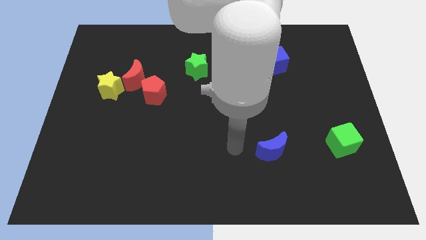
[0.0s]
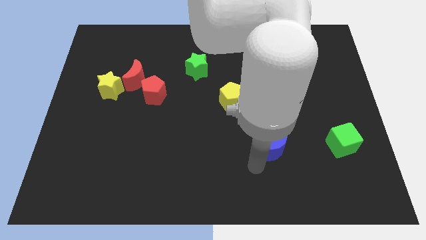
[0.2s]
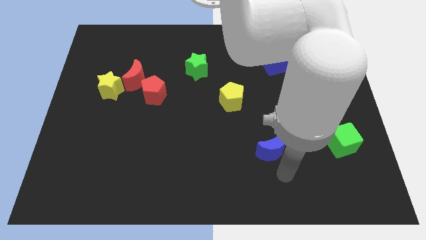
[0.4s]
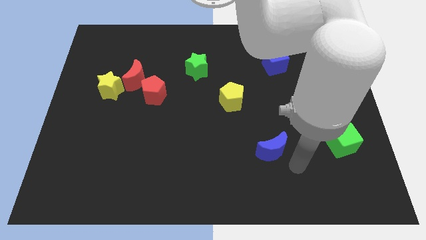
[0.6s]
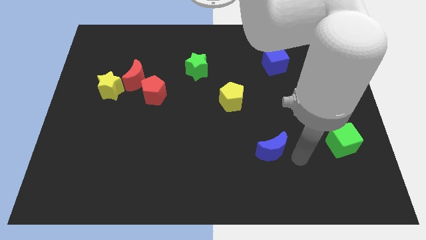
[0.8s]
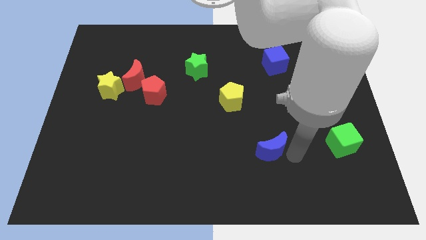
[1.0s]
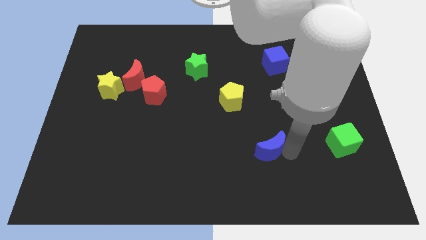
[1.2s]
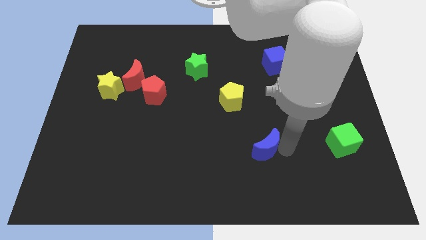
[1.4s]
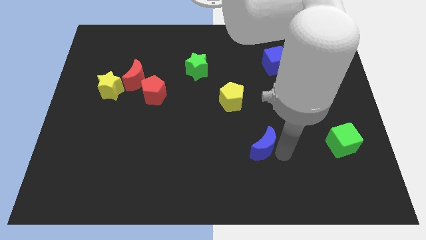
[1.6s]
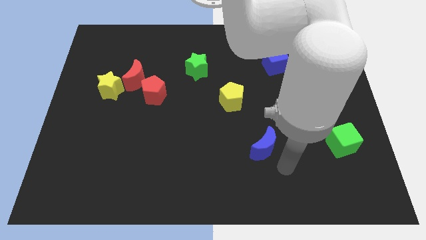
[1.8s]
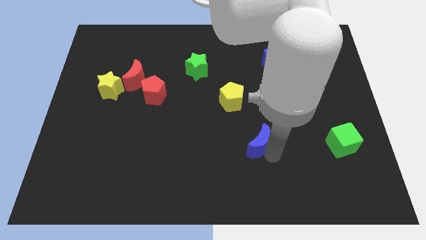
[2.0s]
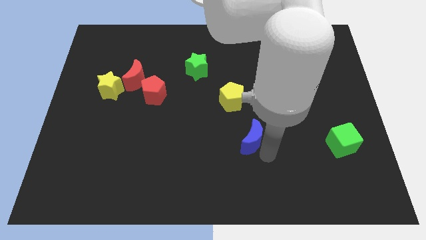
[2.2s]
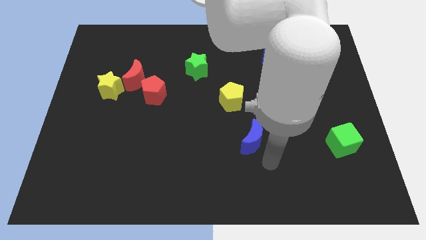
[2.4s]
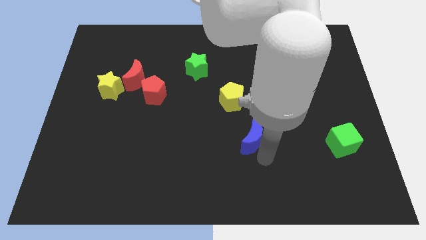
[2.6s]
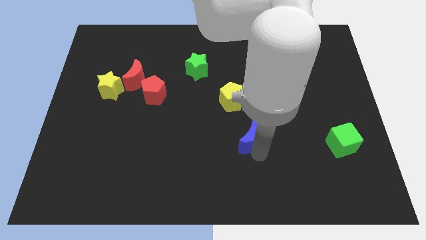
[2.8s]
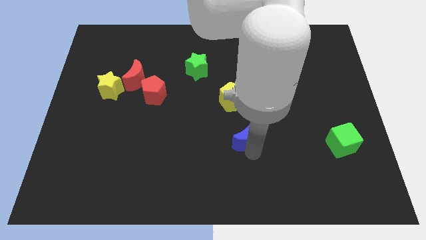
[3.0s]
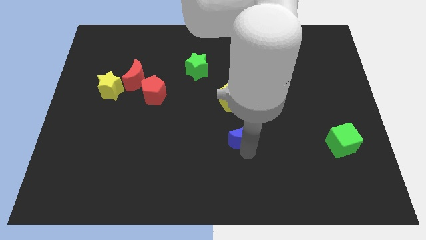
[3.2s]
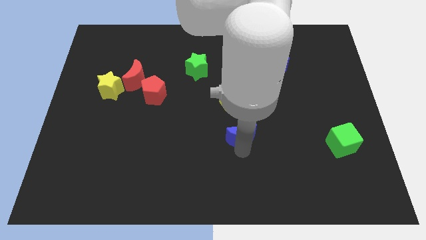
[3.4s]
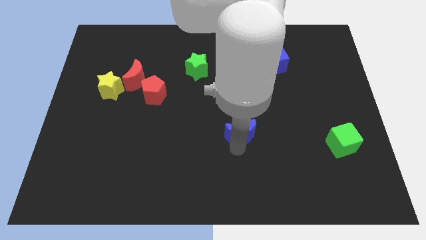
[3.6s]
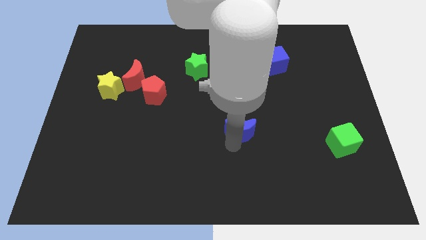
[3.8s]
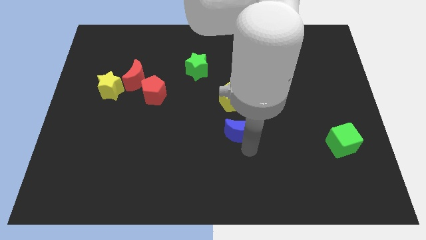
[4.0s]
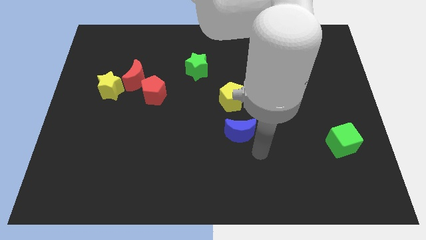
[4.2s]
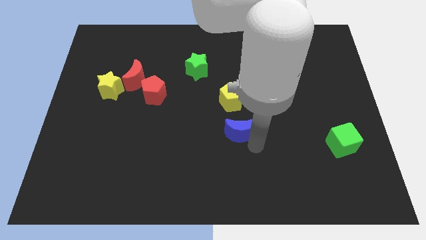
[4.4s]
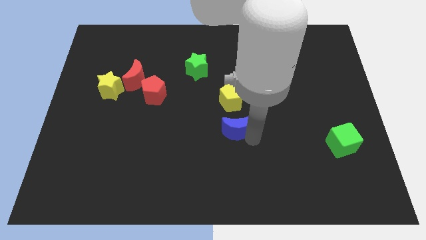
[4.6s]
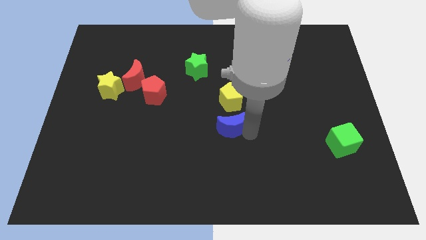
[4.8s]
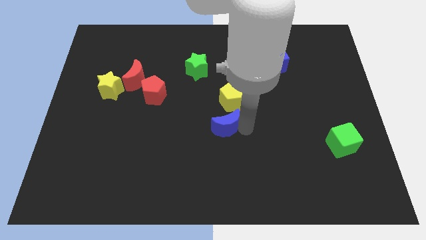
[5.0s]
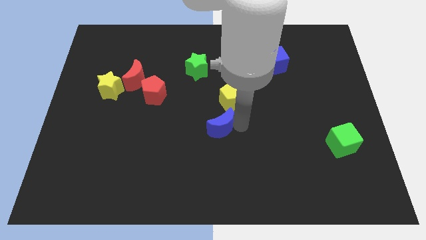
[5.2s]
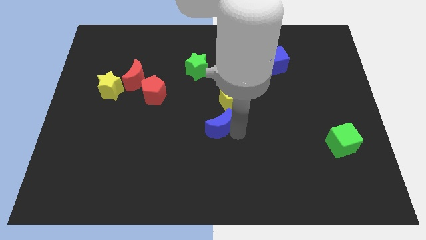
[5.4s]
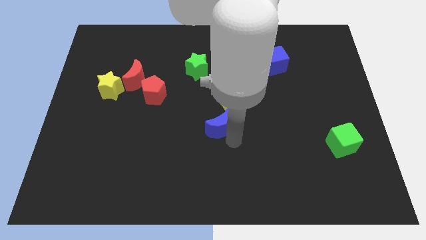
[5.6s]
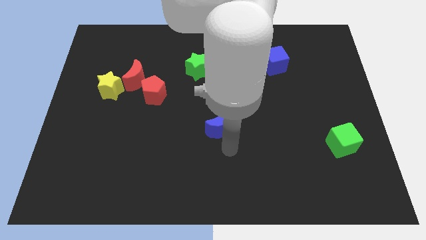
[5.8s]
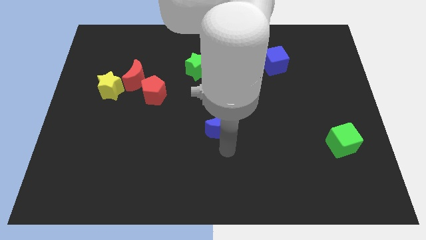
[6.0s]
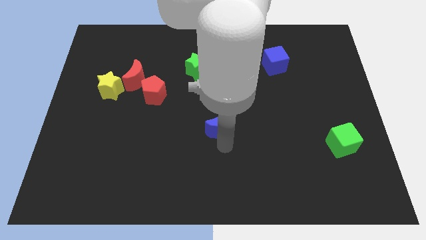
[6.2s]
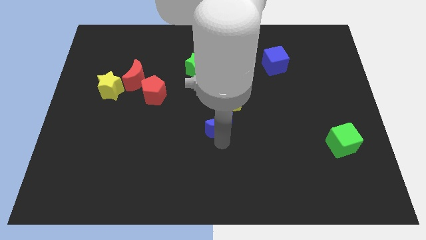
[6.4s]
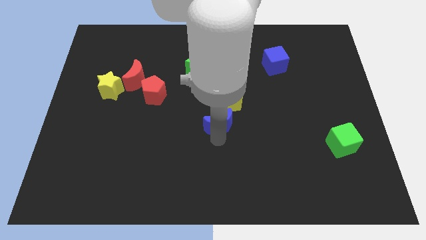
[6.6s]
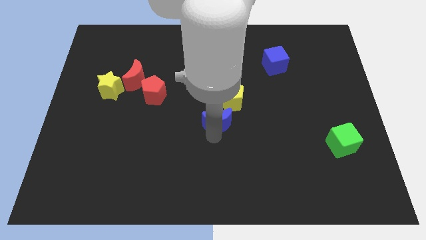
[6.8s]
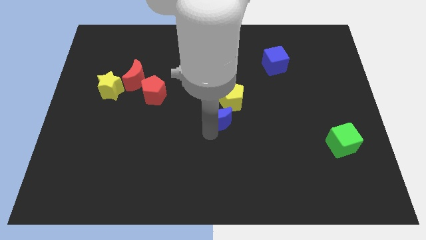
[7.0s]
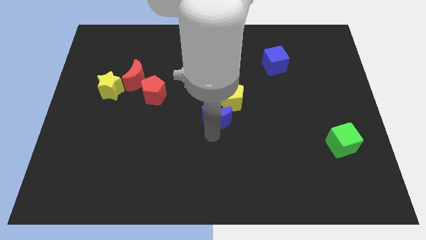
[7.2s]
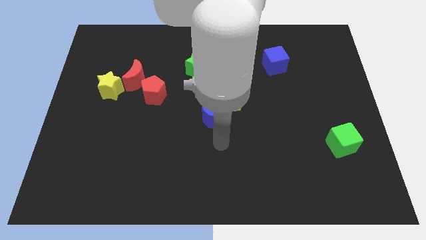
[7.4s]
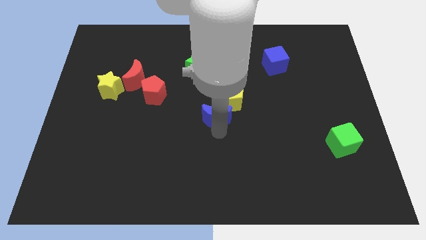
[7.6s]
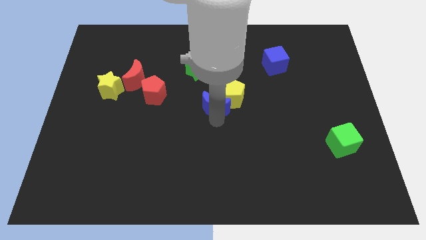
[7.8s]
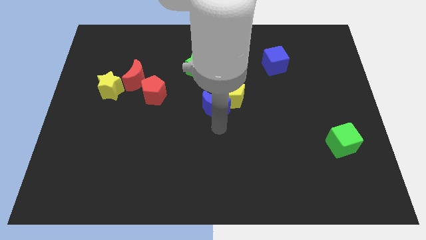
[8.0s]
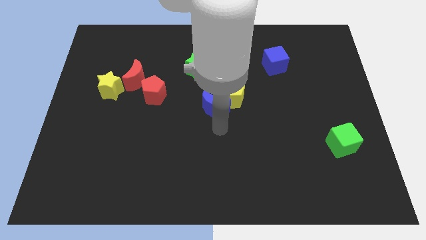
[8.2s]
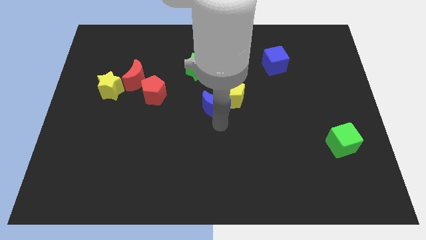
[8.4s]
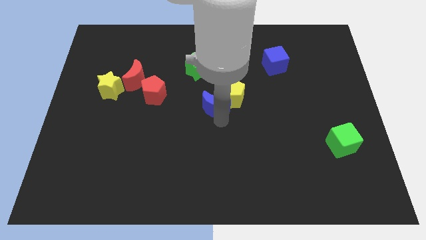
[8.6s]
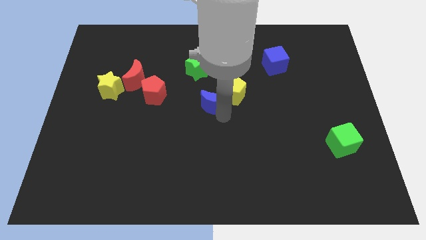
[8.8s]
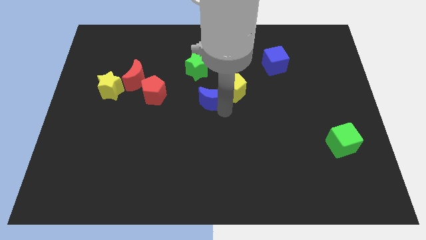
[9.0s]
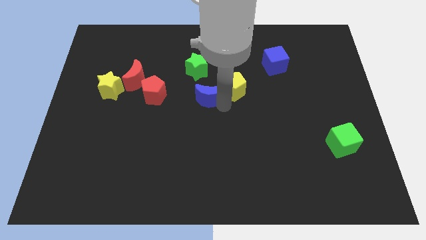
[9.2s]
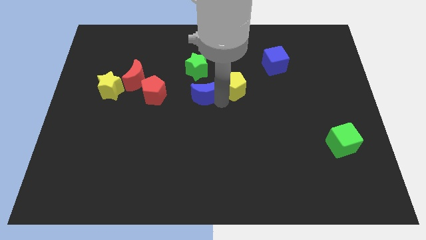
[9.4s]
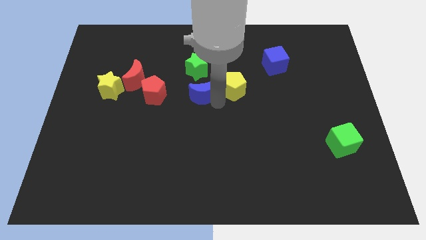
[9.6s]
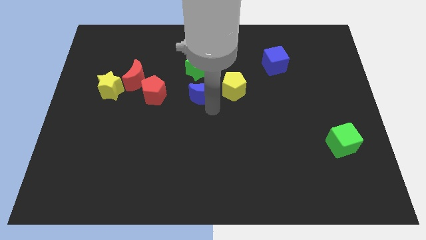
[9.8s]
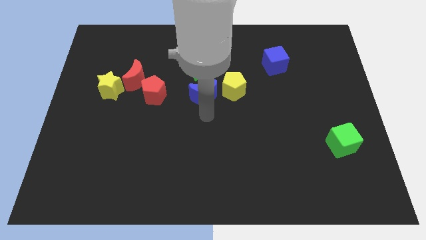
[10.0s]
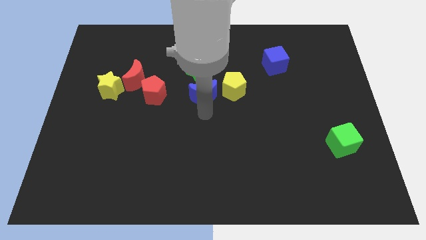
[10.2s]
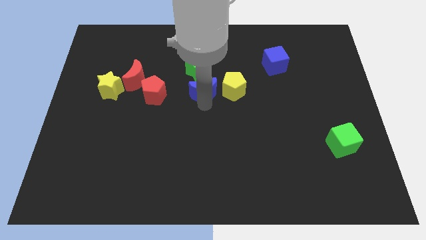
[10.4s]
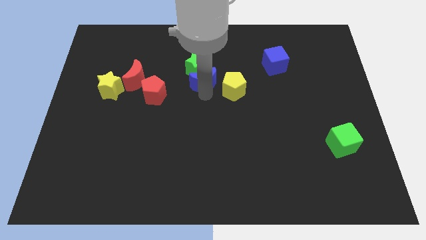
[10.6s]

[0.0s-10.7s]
move the blue moon towards the green star

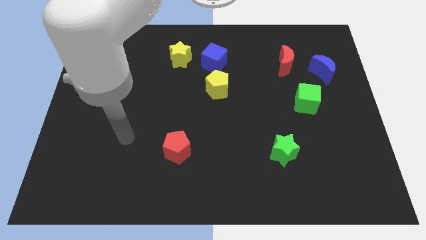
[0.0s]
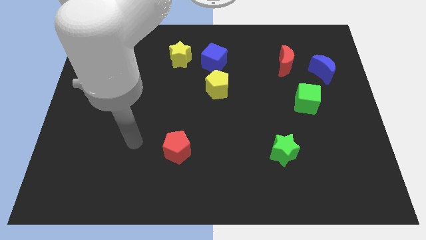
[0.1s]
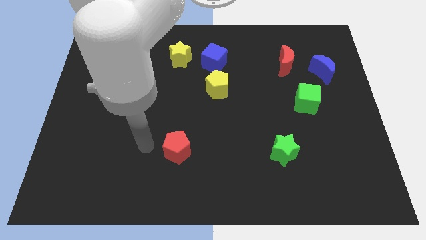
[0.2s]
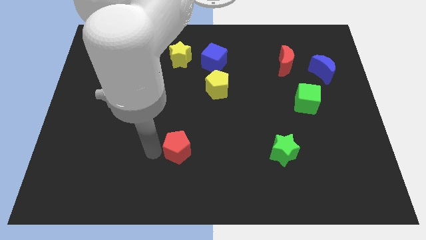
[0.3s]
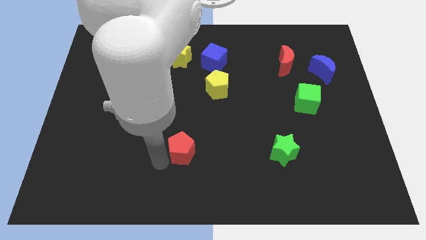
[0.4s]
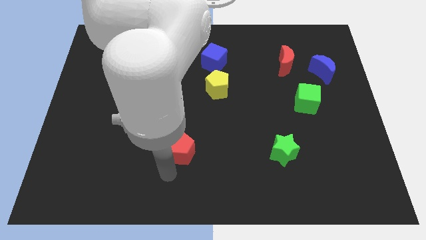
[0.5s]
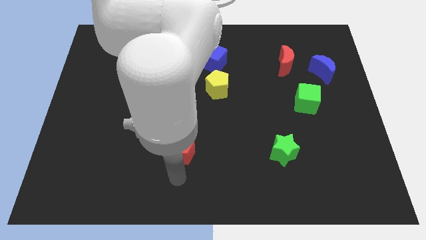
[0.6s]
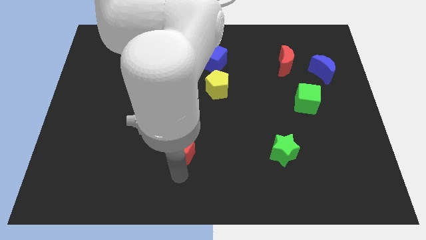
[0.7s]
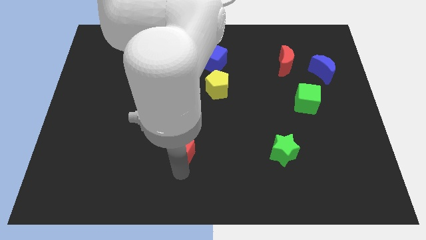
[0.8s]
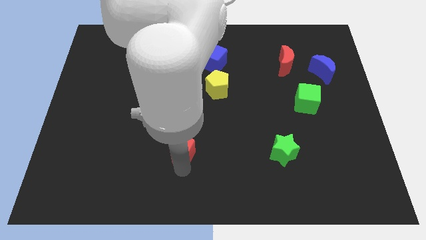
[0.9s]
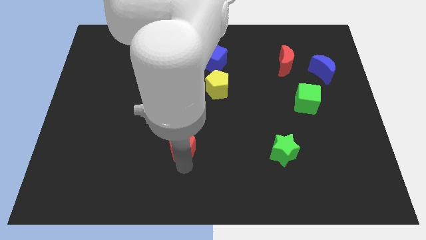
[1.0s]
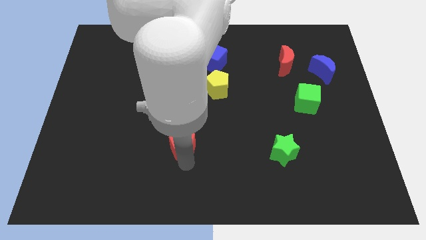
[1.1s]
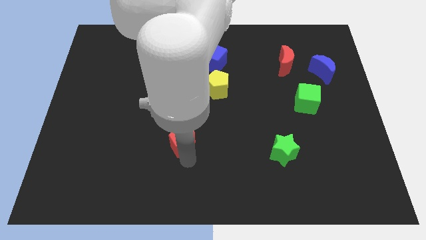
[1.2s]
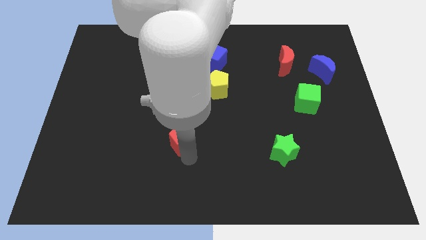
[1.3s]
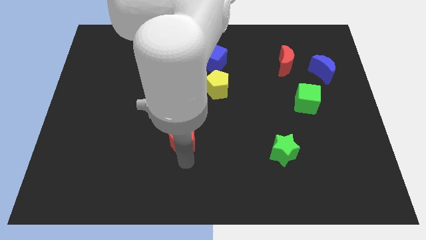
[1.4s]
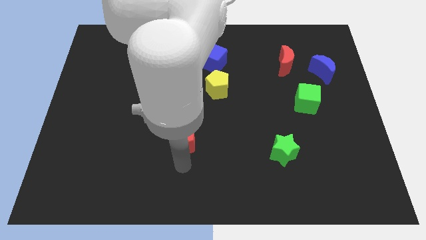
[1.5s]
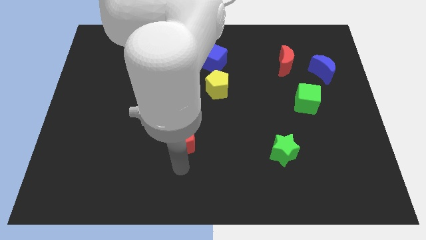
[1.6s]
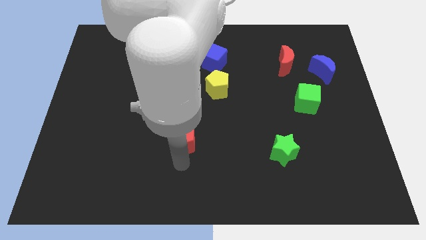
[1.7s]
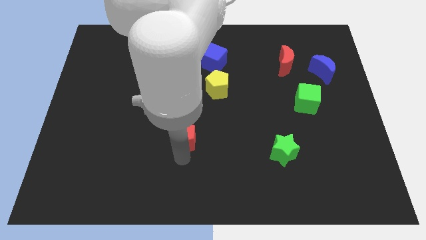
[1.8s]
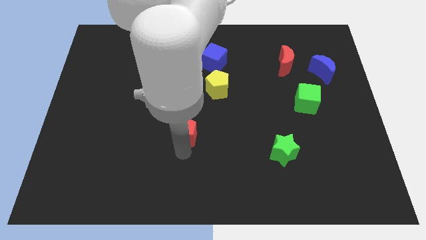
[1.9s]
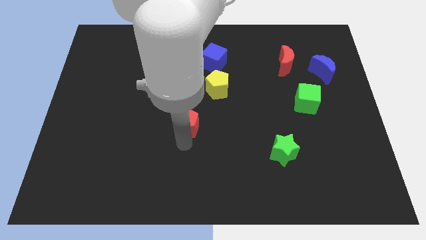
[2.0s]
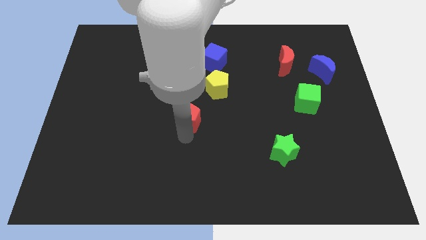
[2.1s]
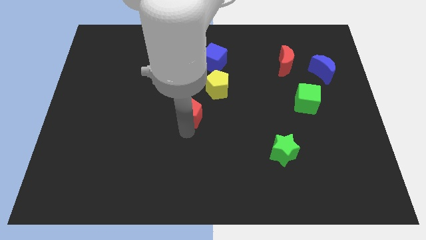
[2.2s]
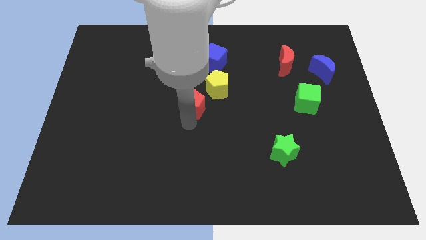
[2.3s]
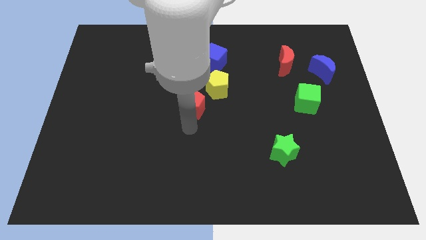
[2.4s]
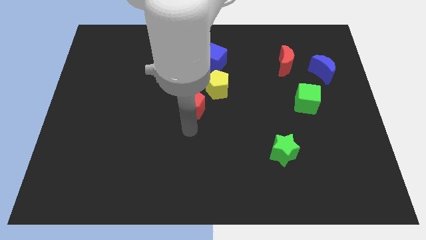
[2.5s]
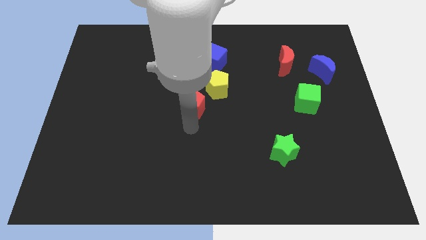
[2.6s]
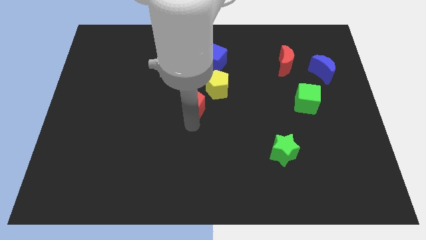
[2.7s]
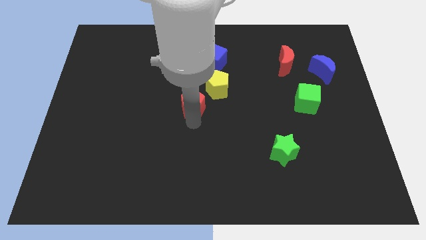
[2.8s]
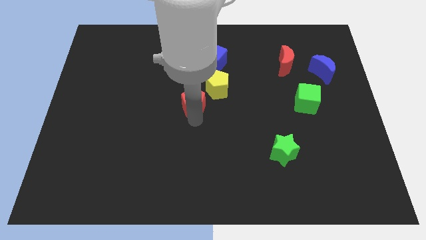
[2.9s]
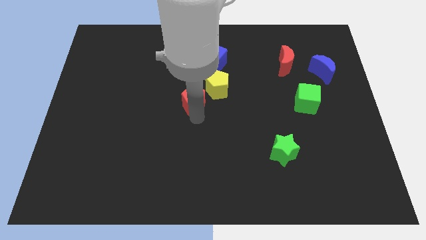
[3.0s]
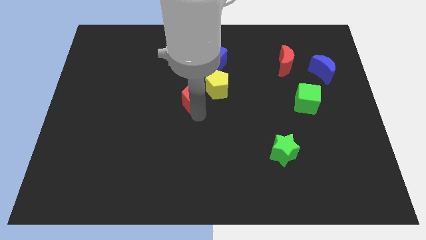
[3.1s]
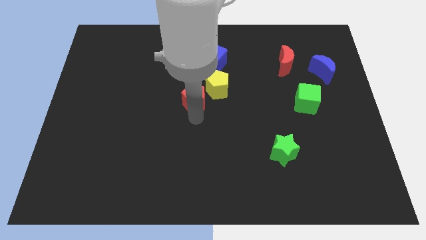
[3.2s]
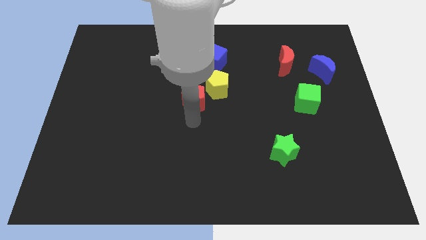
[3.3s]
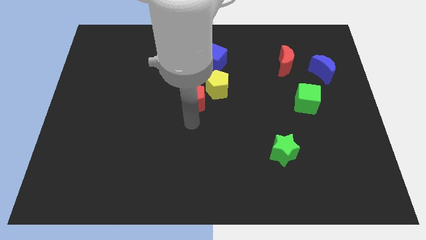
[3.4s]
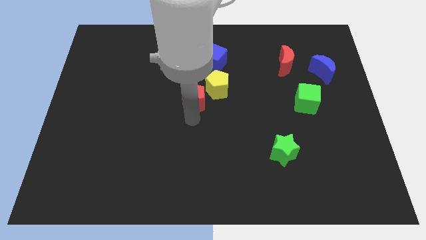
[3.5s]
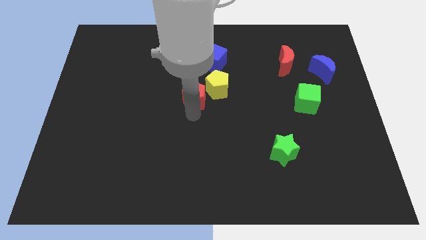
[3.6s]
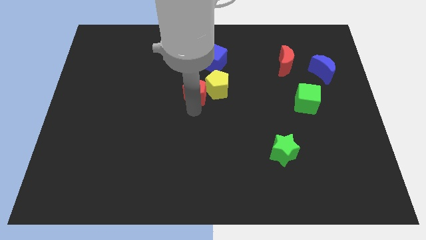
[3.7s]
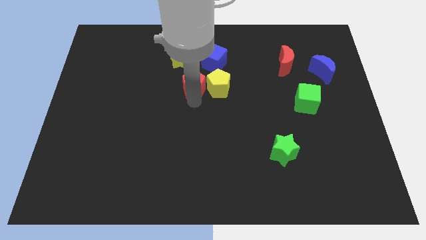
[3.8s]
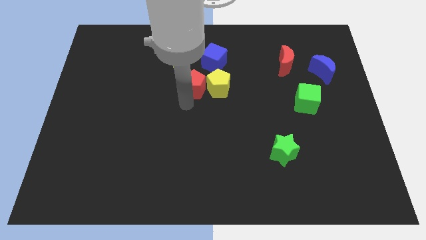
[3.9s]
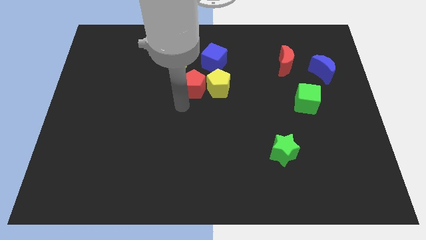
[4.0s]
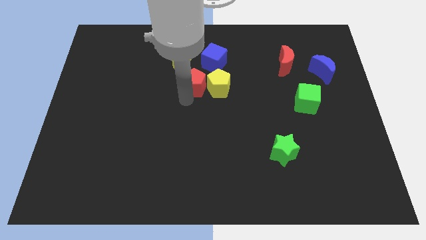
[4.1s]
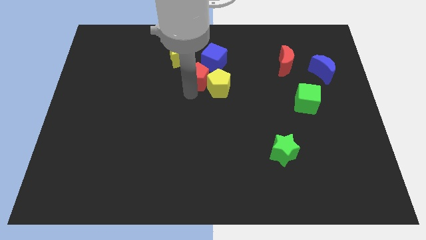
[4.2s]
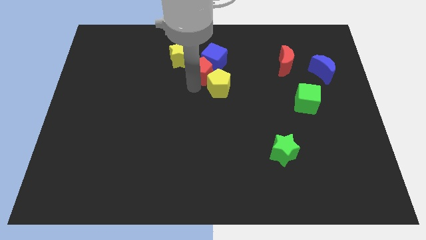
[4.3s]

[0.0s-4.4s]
push the red pentagon close to the blue cube
